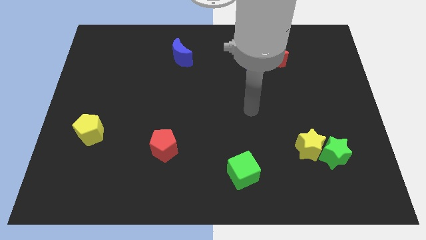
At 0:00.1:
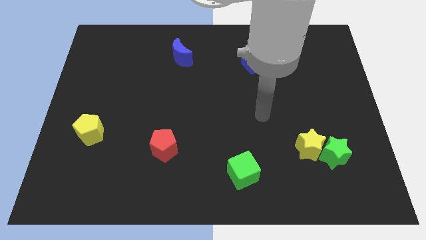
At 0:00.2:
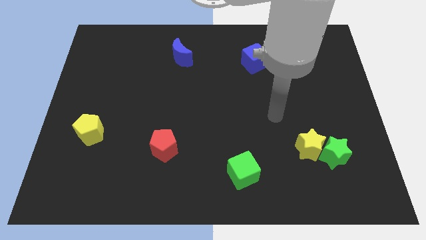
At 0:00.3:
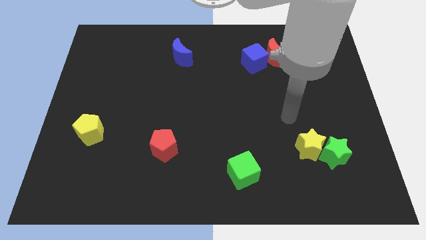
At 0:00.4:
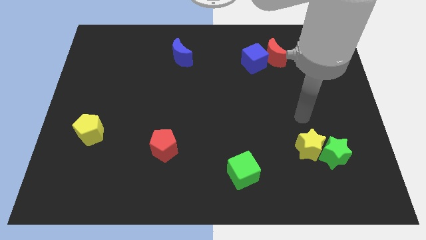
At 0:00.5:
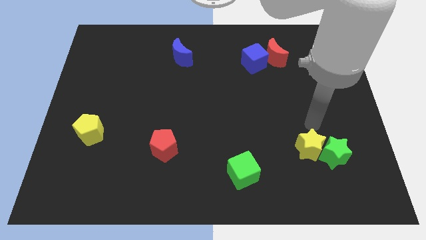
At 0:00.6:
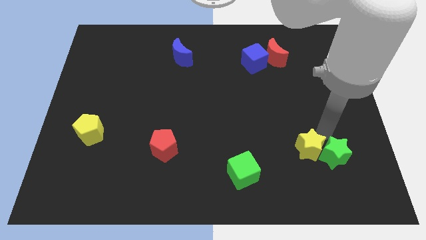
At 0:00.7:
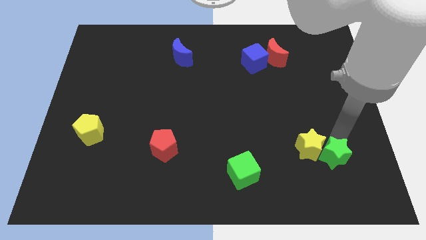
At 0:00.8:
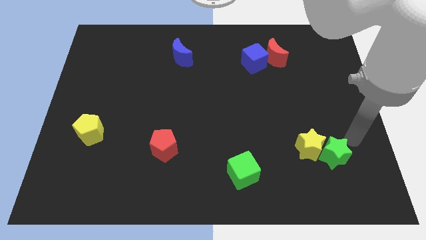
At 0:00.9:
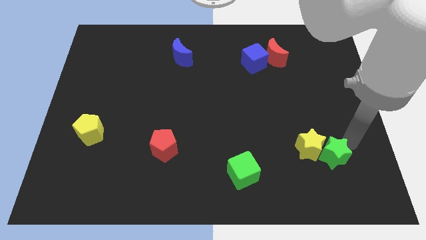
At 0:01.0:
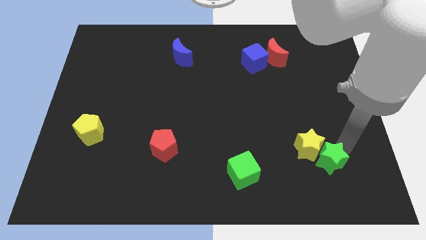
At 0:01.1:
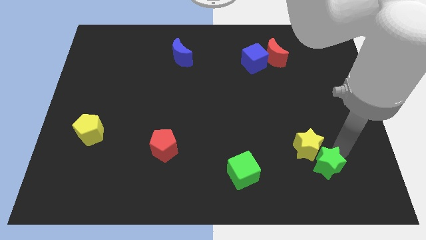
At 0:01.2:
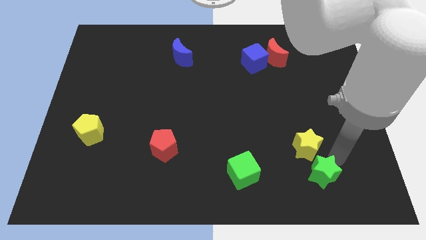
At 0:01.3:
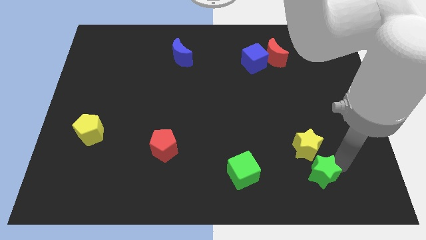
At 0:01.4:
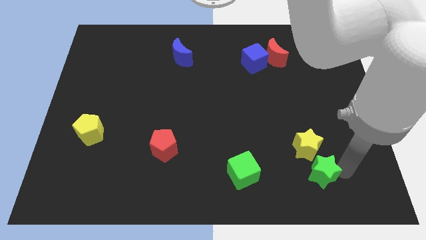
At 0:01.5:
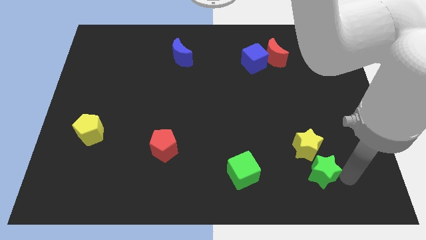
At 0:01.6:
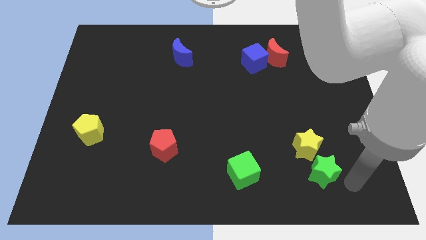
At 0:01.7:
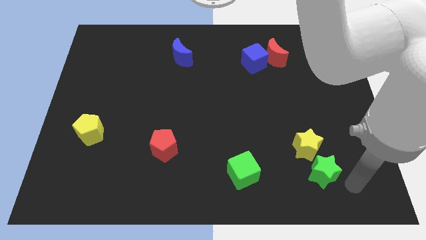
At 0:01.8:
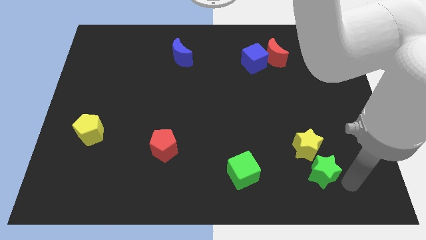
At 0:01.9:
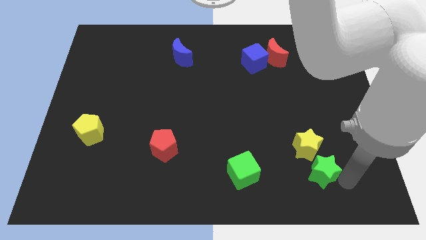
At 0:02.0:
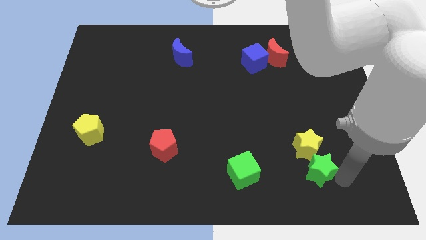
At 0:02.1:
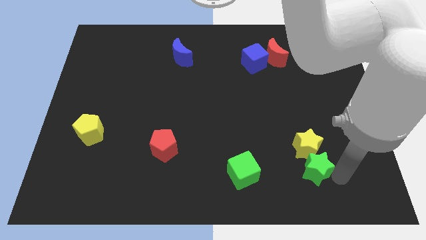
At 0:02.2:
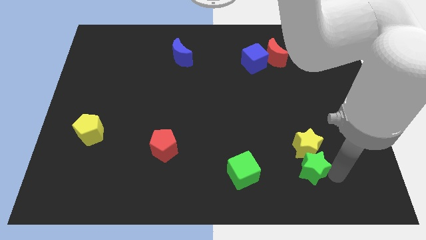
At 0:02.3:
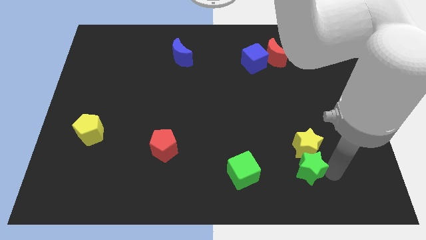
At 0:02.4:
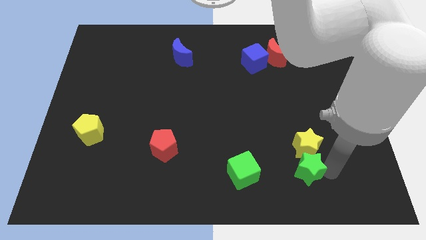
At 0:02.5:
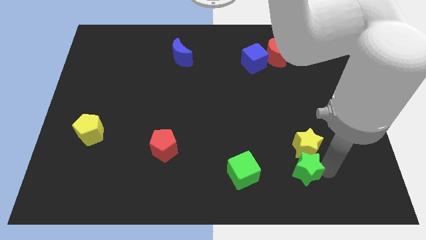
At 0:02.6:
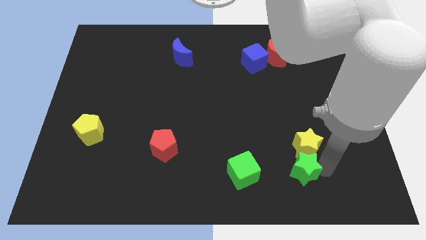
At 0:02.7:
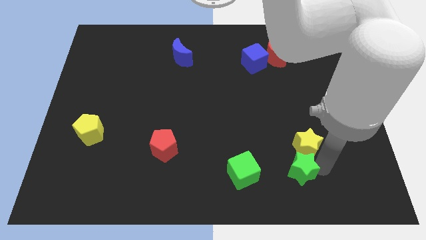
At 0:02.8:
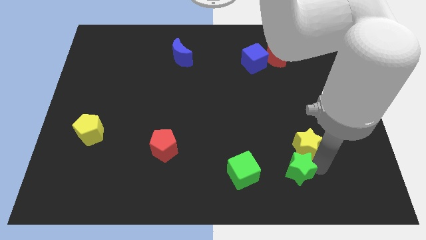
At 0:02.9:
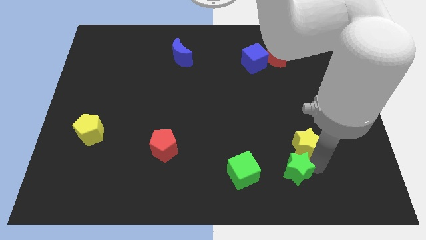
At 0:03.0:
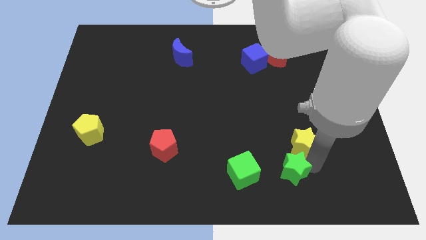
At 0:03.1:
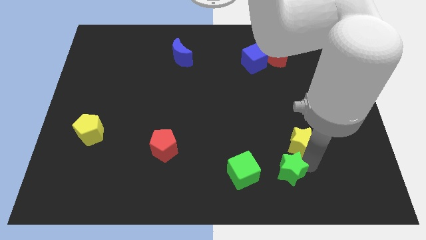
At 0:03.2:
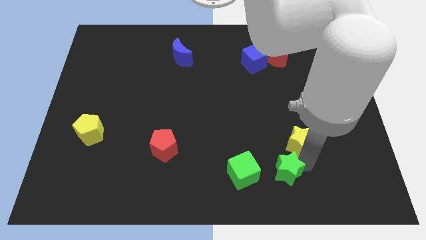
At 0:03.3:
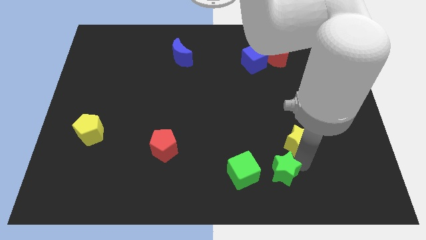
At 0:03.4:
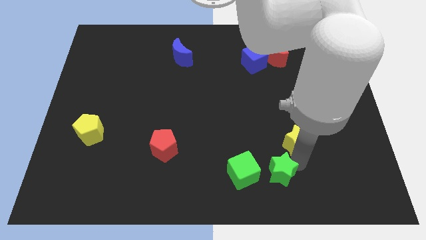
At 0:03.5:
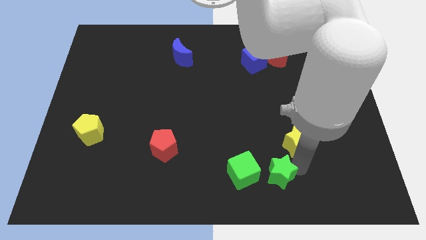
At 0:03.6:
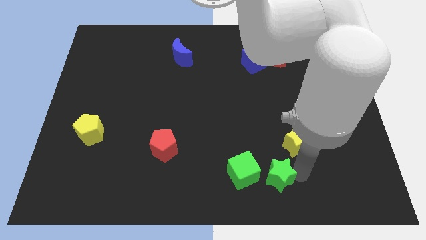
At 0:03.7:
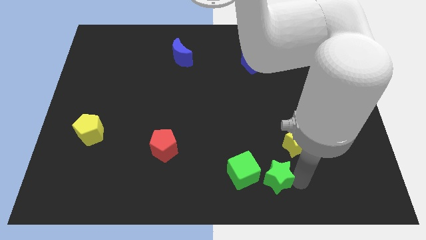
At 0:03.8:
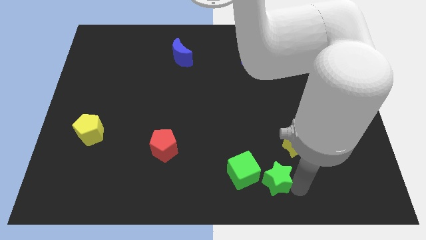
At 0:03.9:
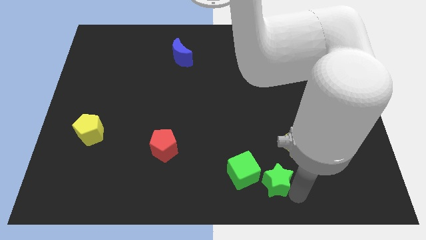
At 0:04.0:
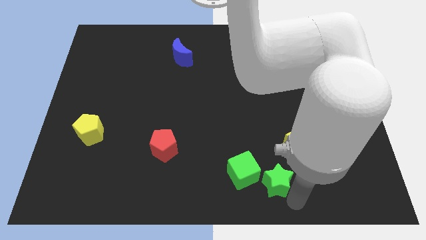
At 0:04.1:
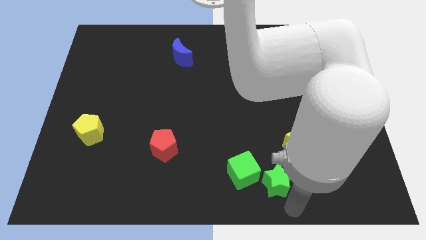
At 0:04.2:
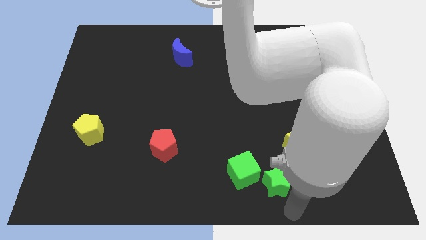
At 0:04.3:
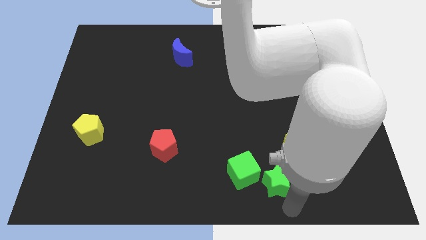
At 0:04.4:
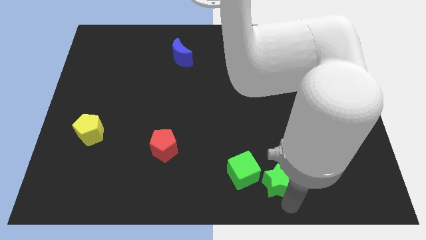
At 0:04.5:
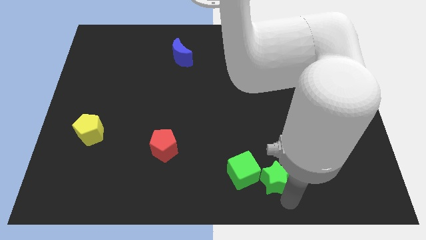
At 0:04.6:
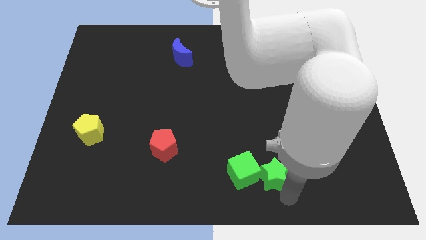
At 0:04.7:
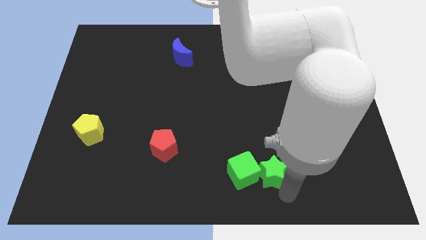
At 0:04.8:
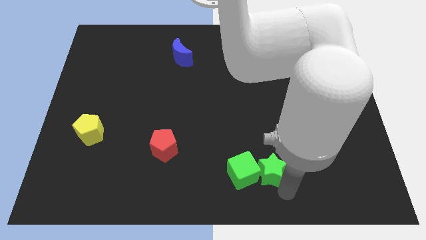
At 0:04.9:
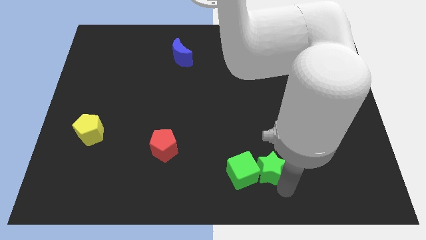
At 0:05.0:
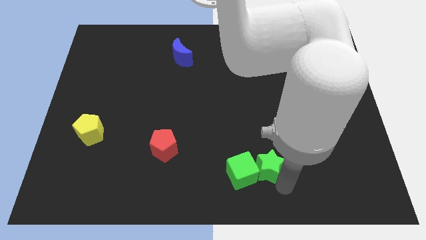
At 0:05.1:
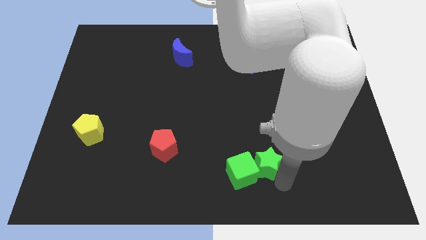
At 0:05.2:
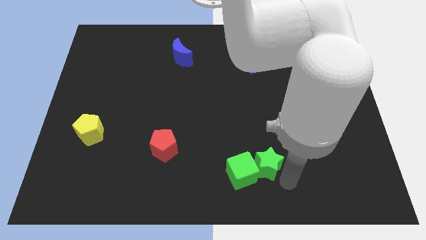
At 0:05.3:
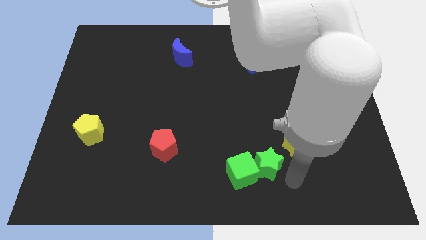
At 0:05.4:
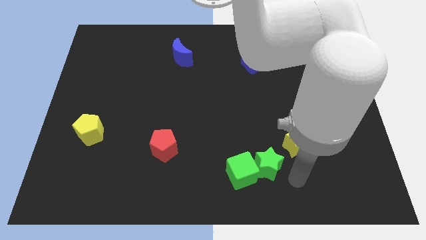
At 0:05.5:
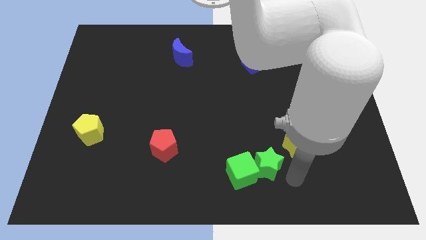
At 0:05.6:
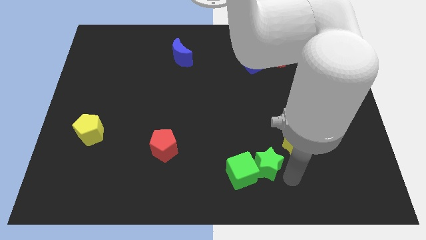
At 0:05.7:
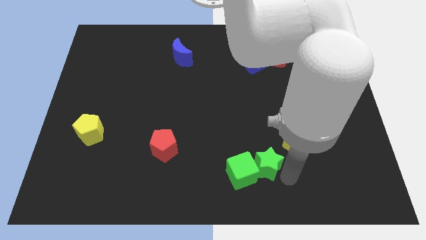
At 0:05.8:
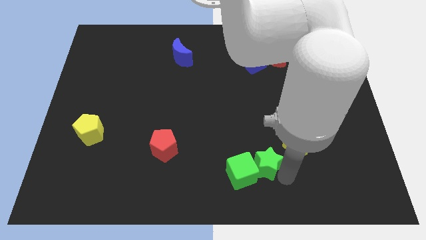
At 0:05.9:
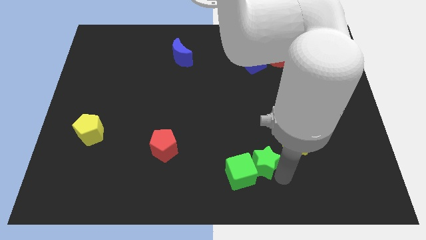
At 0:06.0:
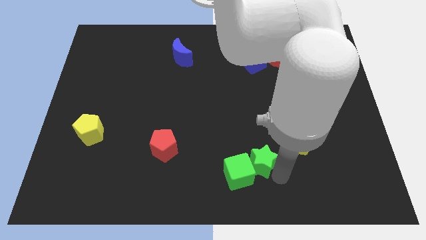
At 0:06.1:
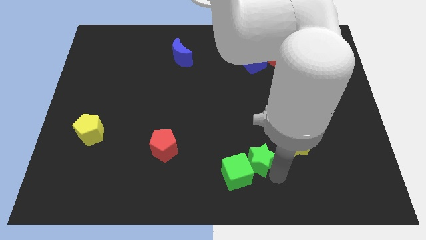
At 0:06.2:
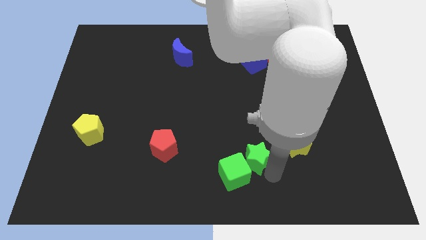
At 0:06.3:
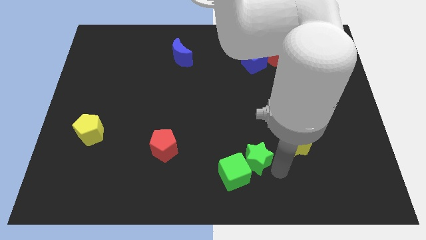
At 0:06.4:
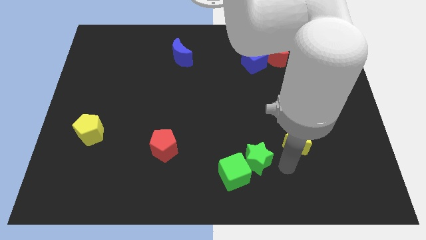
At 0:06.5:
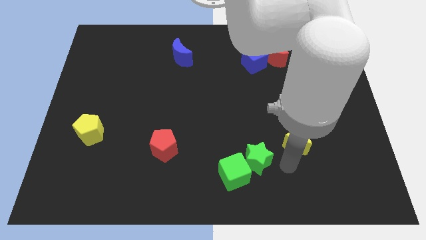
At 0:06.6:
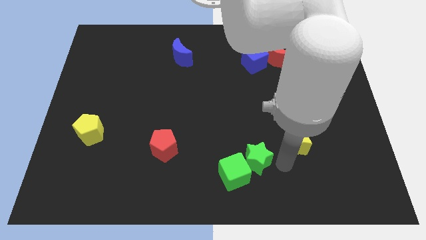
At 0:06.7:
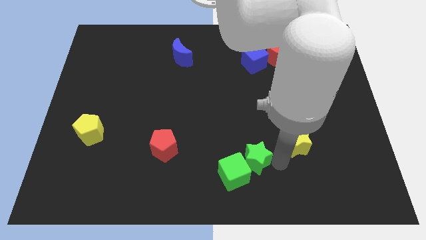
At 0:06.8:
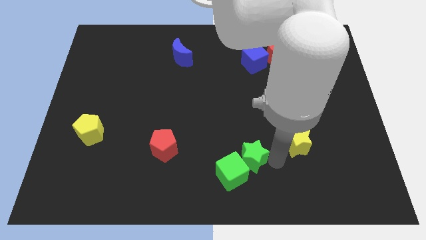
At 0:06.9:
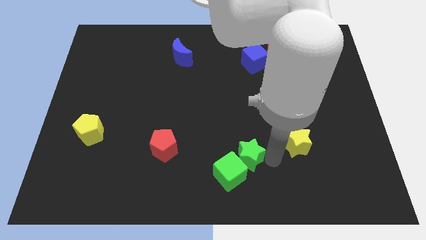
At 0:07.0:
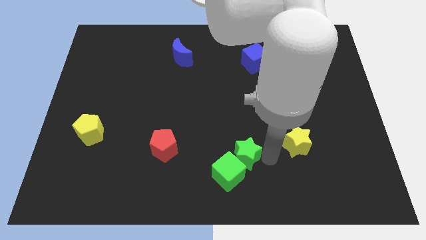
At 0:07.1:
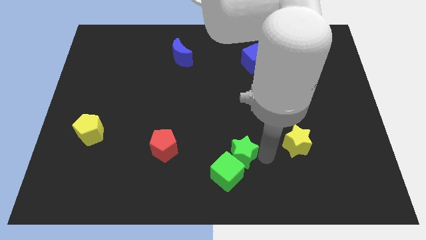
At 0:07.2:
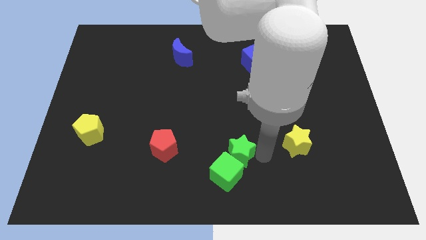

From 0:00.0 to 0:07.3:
slide the green star to the left

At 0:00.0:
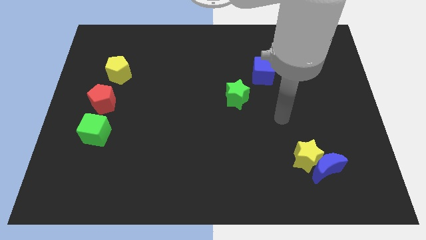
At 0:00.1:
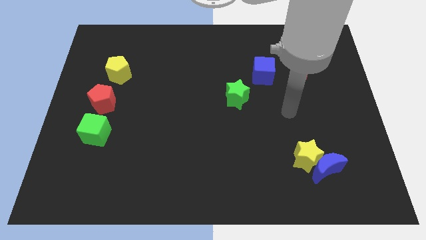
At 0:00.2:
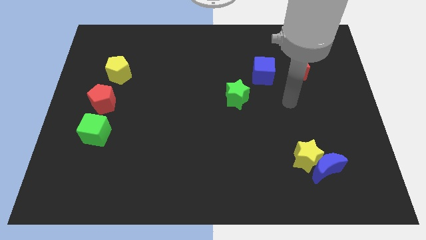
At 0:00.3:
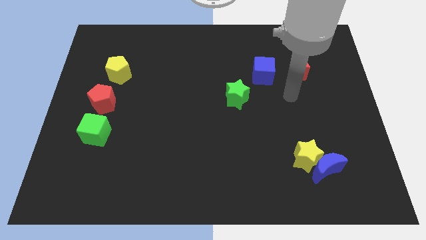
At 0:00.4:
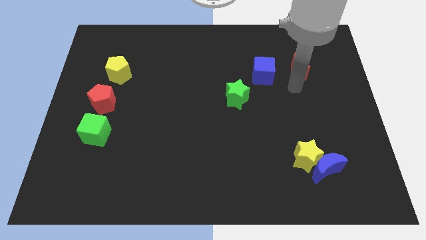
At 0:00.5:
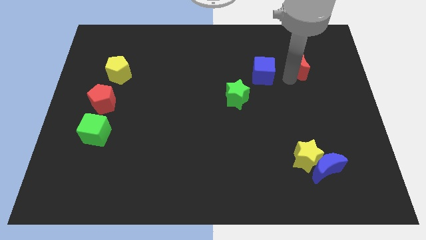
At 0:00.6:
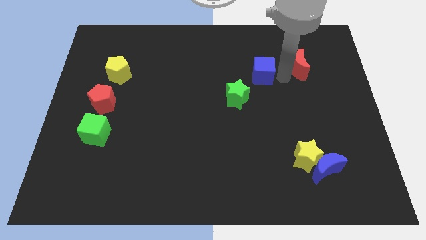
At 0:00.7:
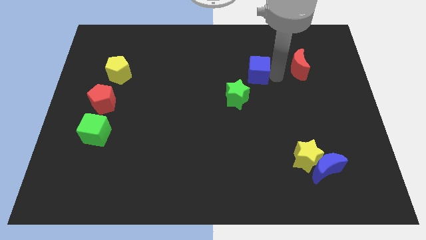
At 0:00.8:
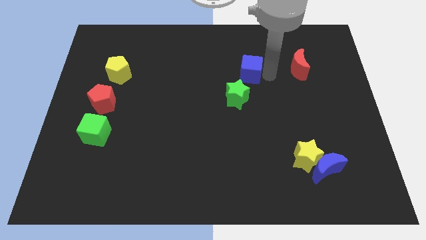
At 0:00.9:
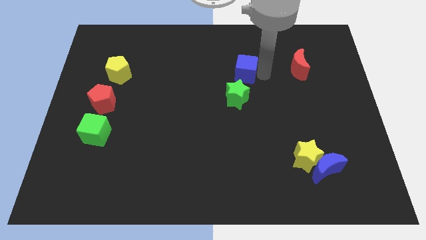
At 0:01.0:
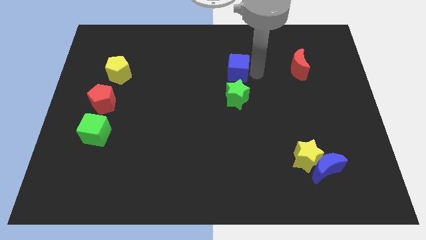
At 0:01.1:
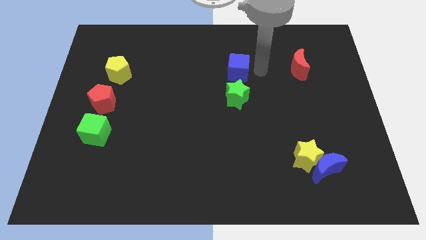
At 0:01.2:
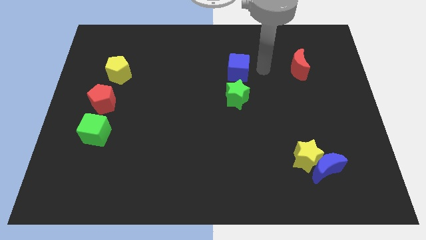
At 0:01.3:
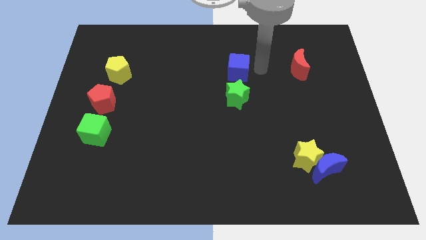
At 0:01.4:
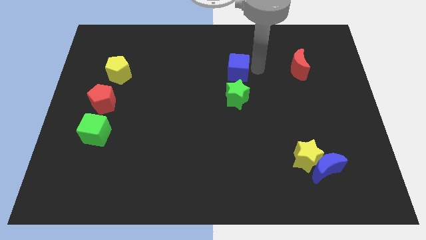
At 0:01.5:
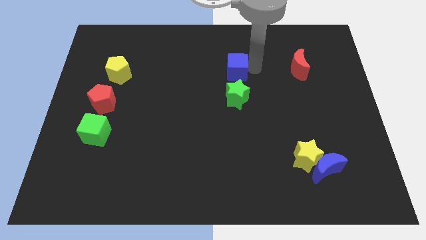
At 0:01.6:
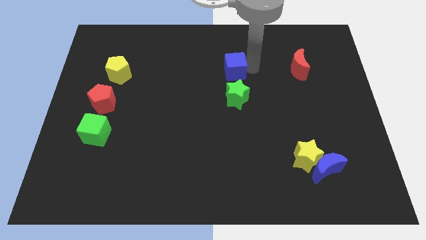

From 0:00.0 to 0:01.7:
push the blue cube a little bit to the left
